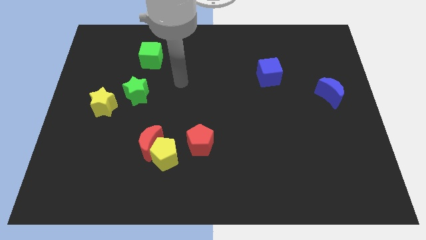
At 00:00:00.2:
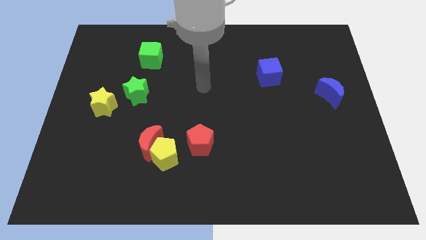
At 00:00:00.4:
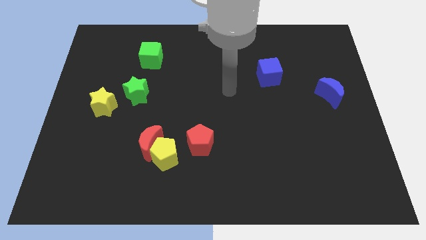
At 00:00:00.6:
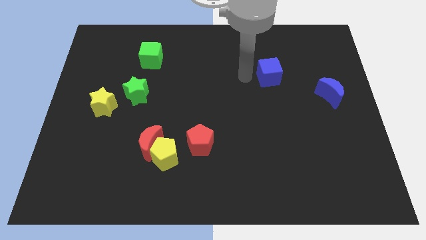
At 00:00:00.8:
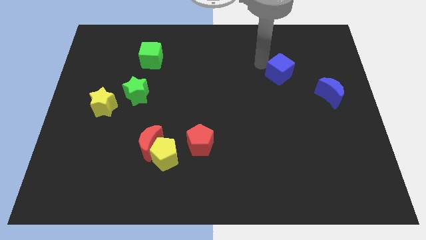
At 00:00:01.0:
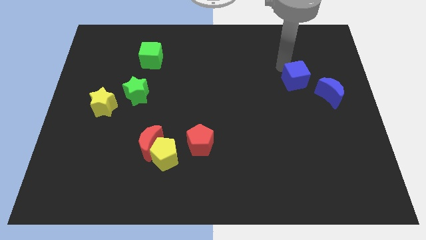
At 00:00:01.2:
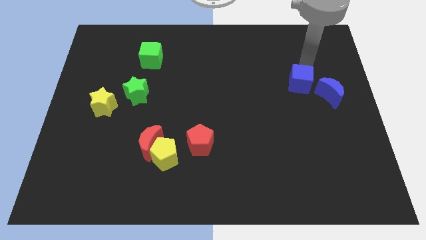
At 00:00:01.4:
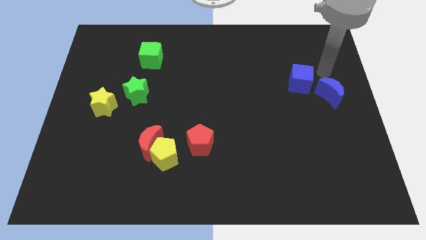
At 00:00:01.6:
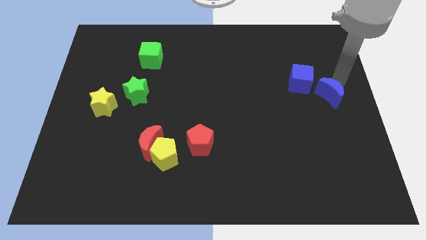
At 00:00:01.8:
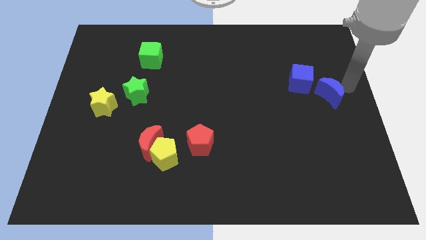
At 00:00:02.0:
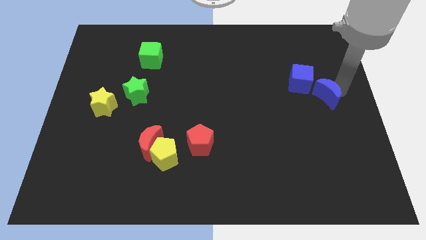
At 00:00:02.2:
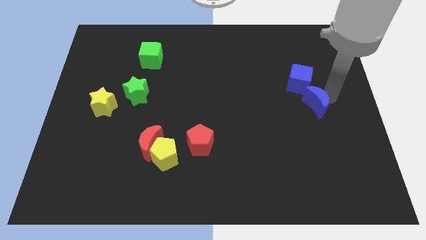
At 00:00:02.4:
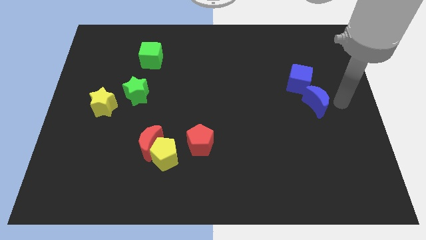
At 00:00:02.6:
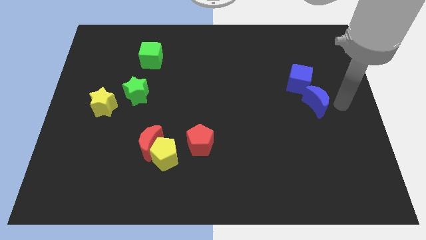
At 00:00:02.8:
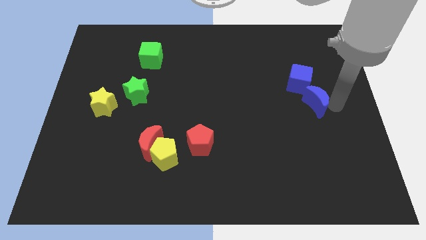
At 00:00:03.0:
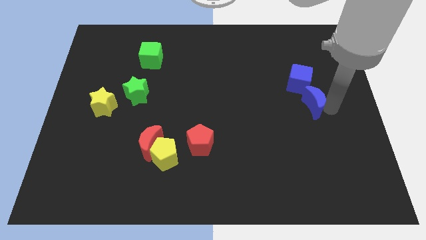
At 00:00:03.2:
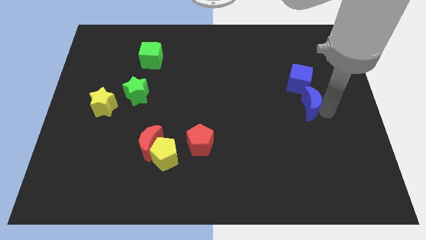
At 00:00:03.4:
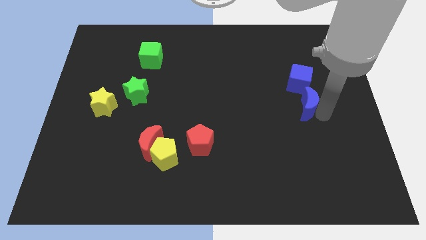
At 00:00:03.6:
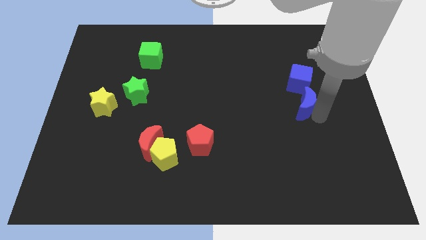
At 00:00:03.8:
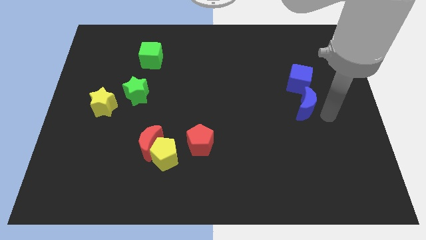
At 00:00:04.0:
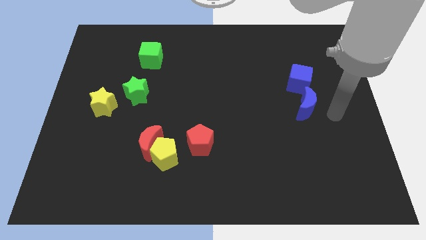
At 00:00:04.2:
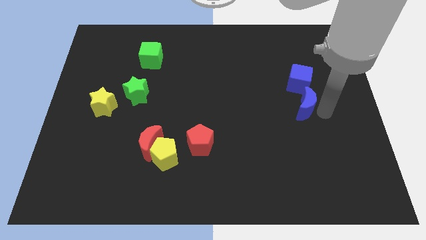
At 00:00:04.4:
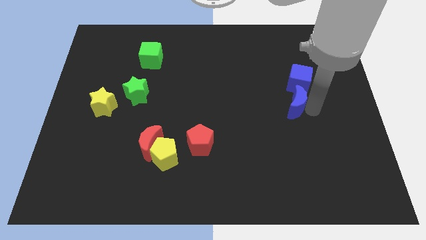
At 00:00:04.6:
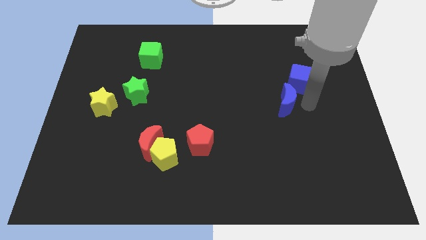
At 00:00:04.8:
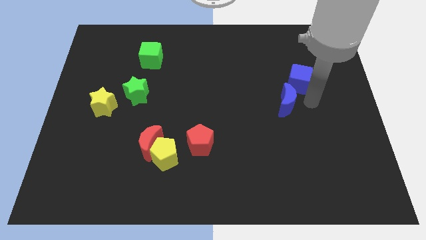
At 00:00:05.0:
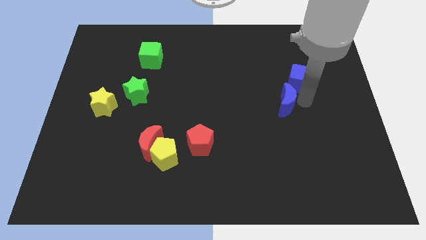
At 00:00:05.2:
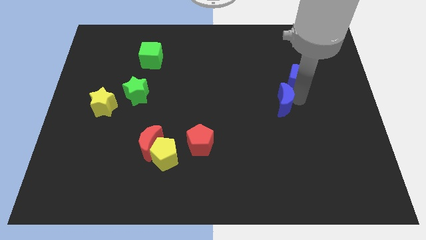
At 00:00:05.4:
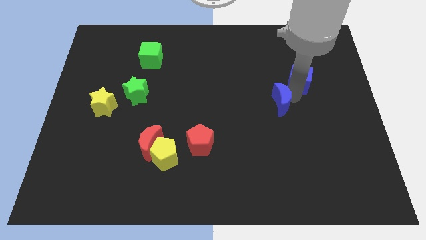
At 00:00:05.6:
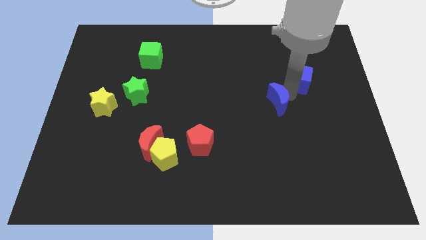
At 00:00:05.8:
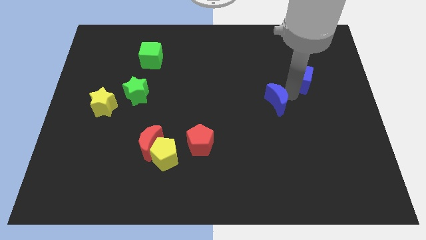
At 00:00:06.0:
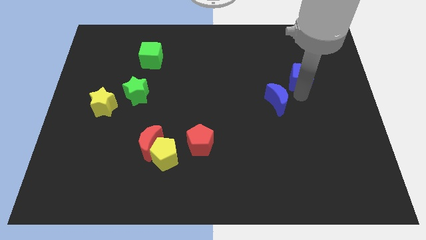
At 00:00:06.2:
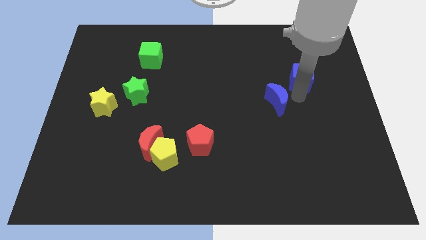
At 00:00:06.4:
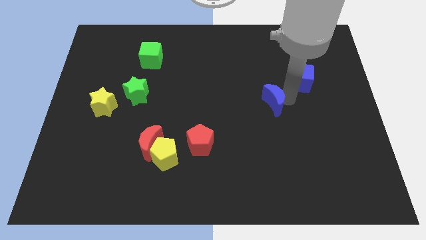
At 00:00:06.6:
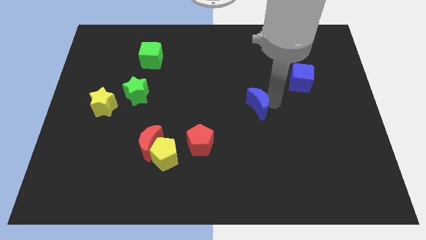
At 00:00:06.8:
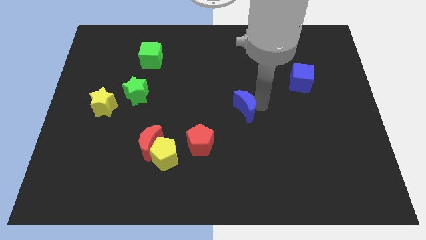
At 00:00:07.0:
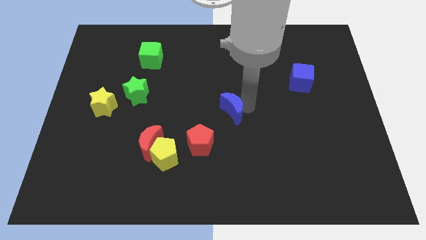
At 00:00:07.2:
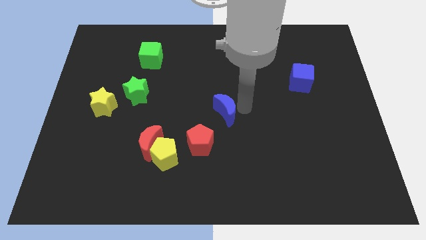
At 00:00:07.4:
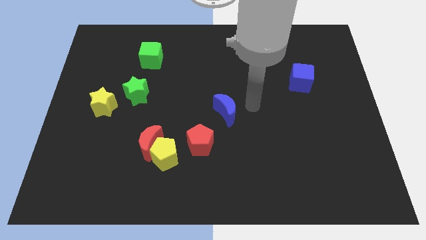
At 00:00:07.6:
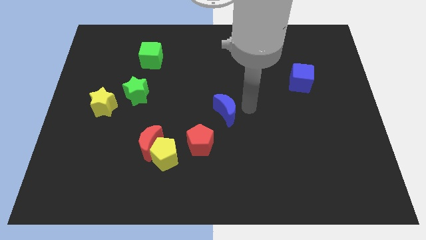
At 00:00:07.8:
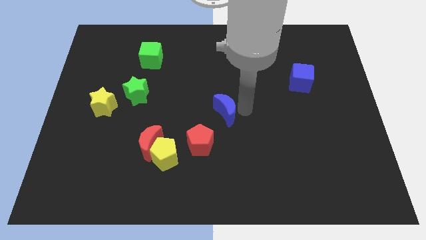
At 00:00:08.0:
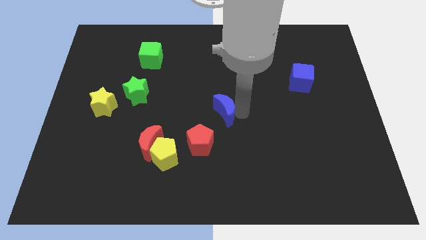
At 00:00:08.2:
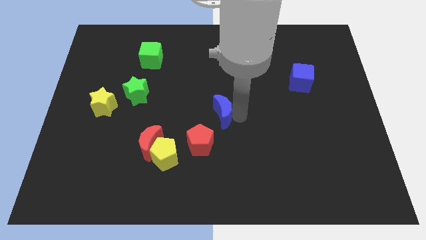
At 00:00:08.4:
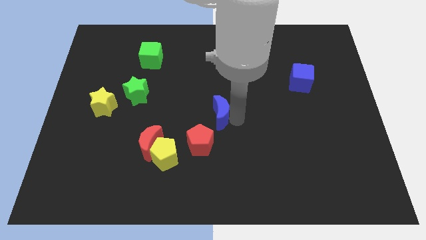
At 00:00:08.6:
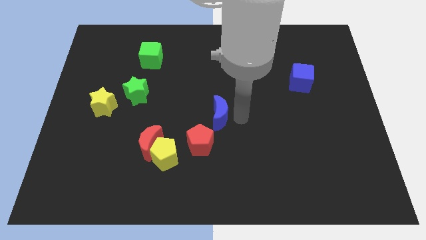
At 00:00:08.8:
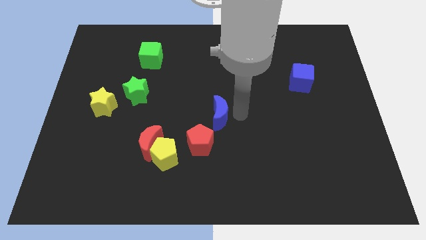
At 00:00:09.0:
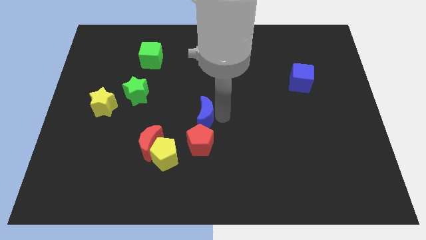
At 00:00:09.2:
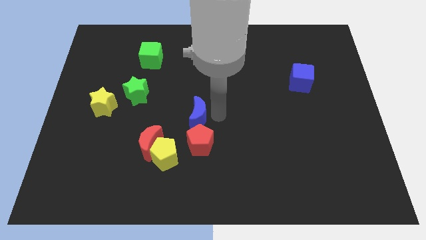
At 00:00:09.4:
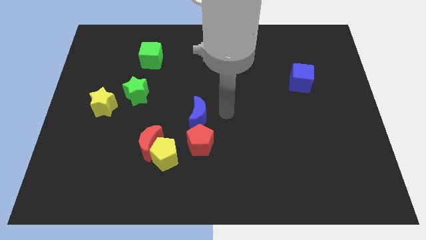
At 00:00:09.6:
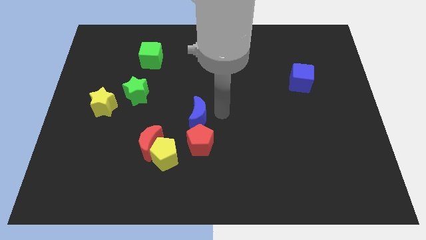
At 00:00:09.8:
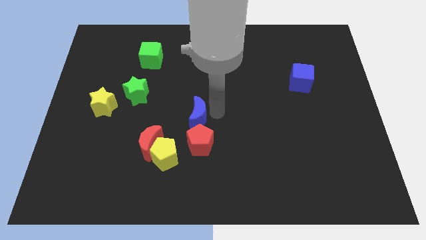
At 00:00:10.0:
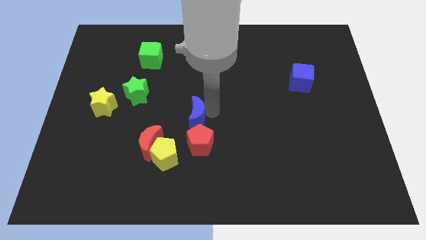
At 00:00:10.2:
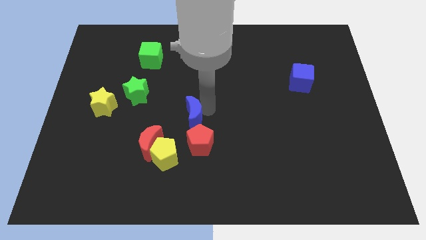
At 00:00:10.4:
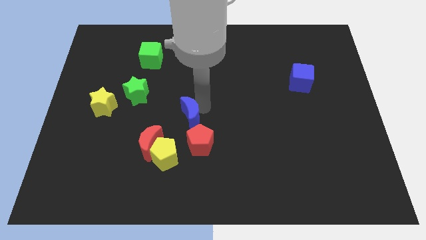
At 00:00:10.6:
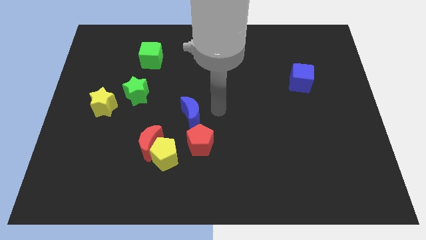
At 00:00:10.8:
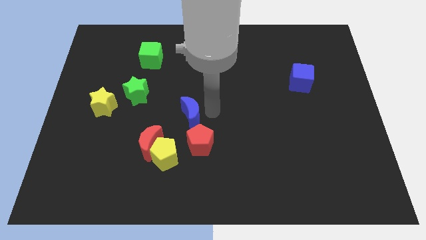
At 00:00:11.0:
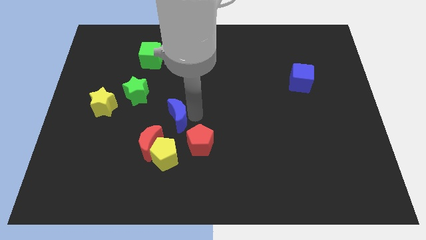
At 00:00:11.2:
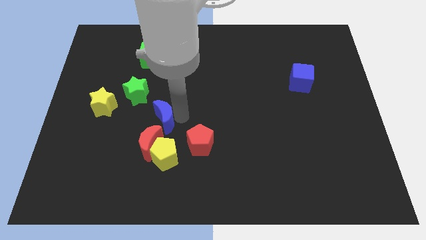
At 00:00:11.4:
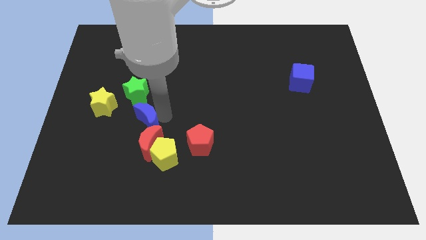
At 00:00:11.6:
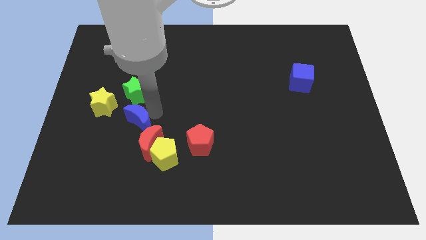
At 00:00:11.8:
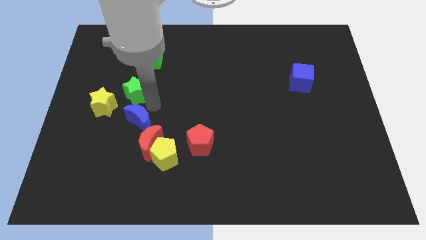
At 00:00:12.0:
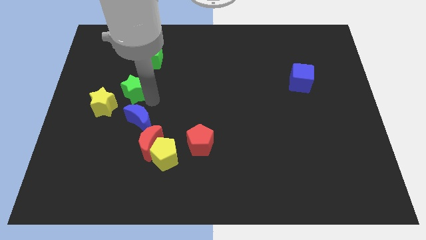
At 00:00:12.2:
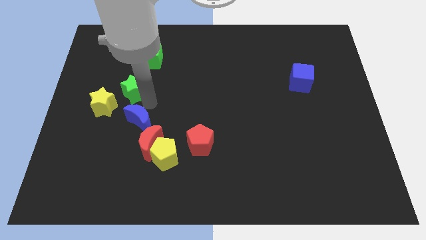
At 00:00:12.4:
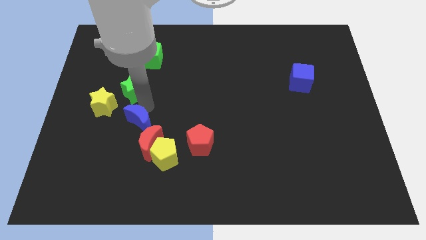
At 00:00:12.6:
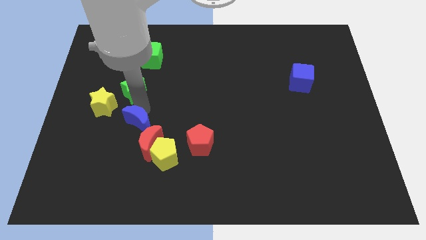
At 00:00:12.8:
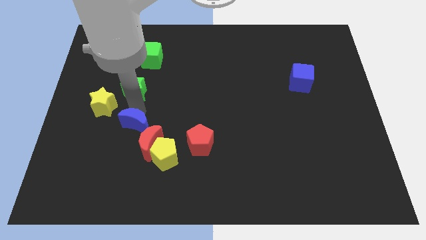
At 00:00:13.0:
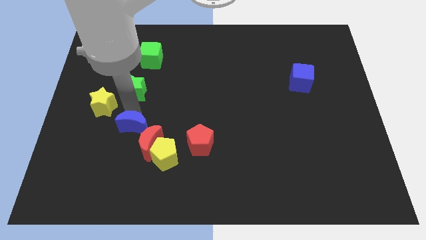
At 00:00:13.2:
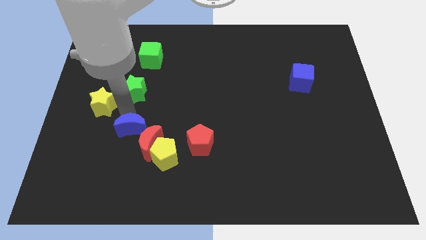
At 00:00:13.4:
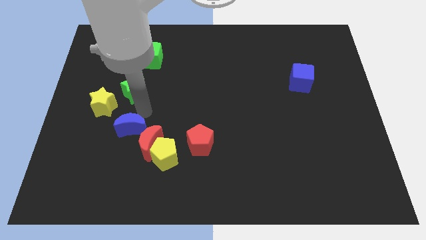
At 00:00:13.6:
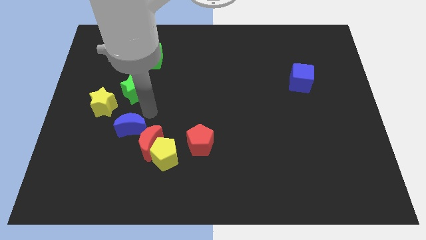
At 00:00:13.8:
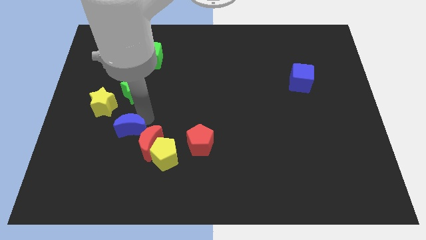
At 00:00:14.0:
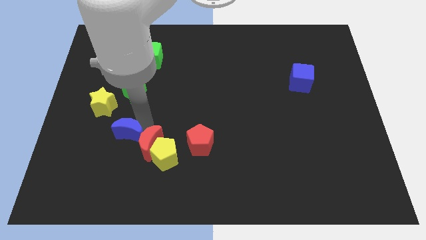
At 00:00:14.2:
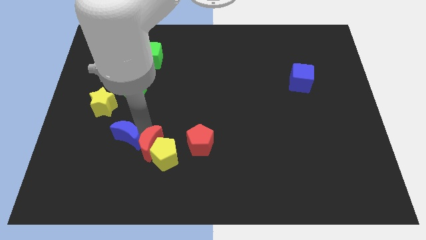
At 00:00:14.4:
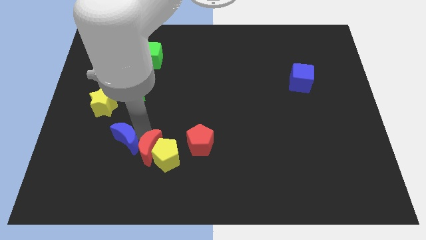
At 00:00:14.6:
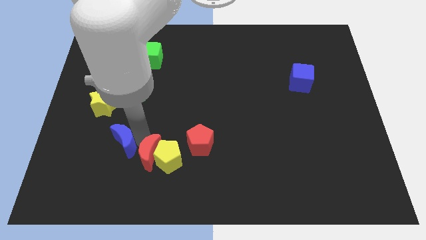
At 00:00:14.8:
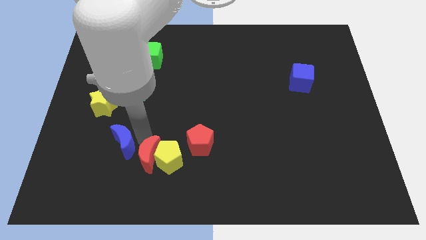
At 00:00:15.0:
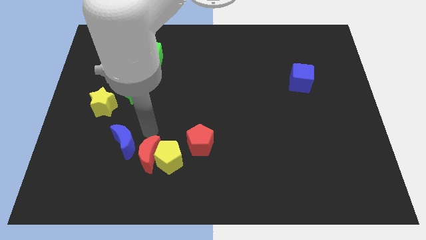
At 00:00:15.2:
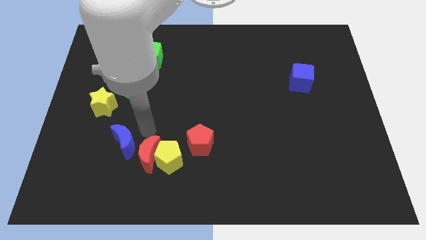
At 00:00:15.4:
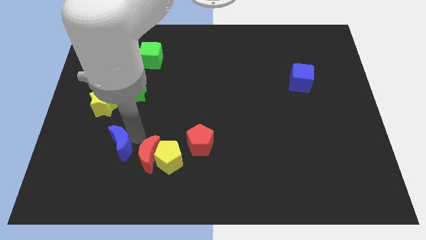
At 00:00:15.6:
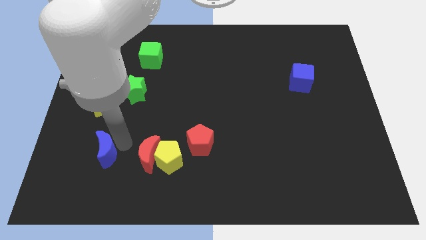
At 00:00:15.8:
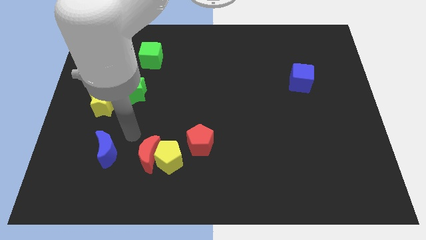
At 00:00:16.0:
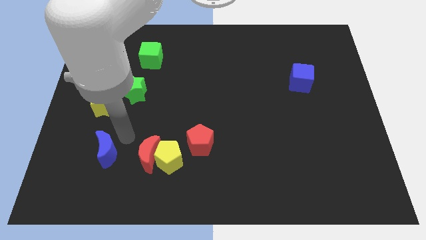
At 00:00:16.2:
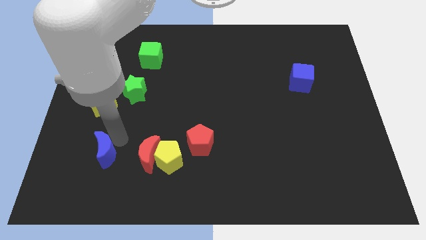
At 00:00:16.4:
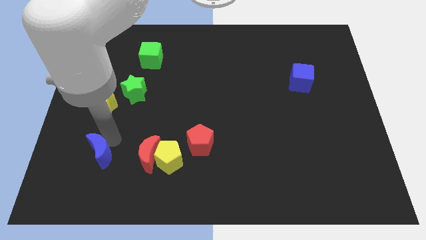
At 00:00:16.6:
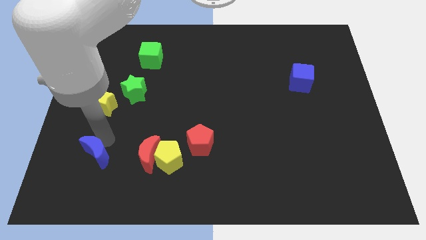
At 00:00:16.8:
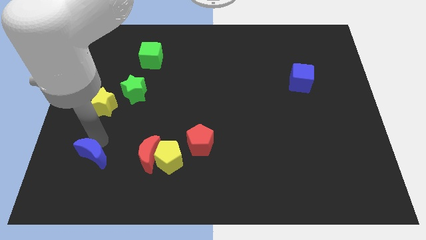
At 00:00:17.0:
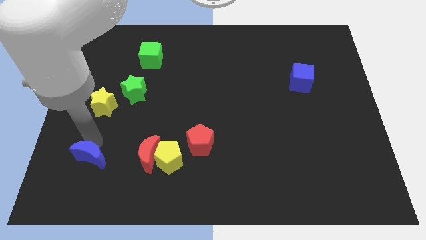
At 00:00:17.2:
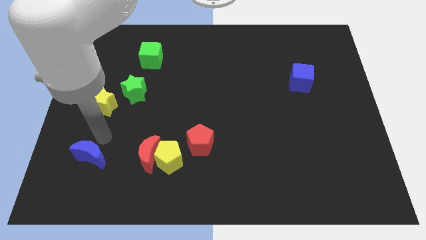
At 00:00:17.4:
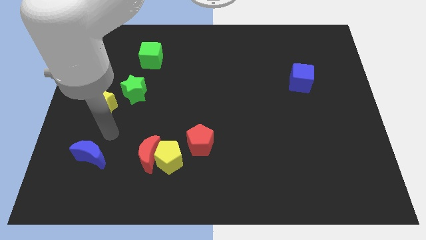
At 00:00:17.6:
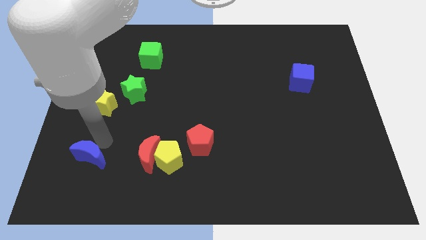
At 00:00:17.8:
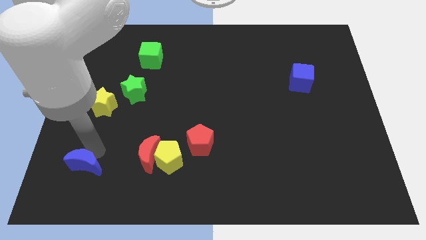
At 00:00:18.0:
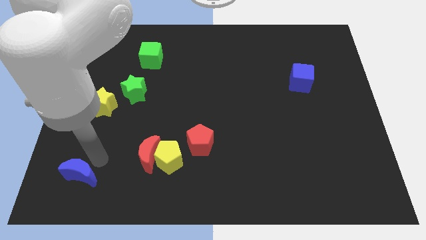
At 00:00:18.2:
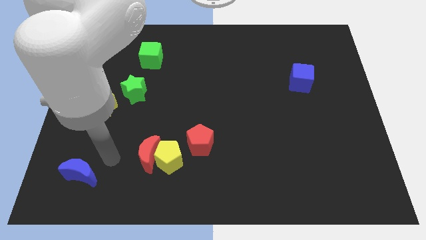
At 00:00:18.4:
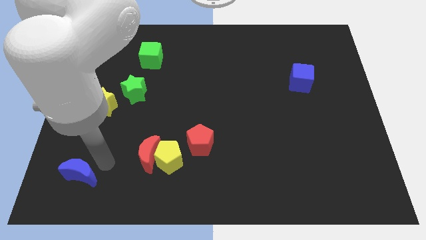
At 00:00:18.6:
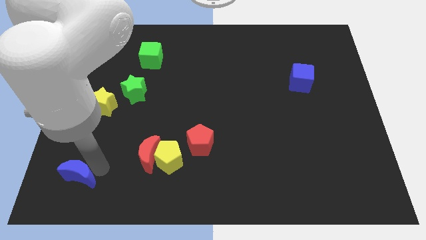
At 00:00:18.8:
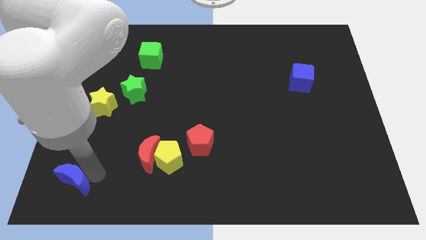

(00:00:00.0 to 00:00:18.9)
slide the blue moon to the bottom left of the board
